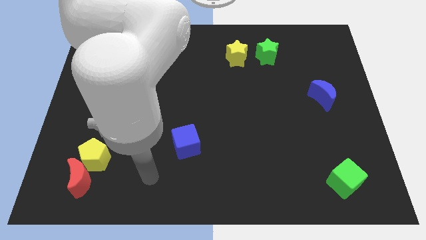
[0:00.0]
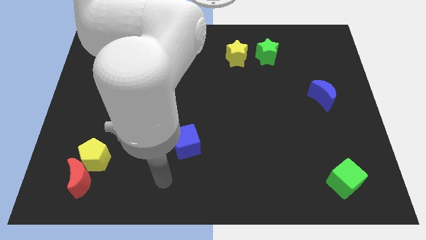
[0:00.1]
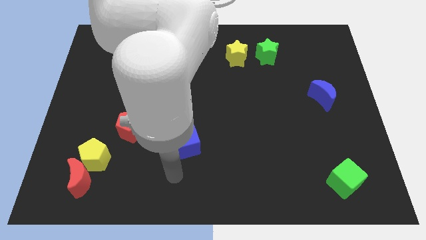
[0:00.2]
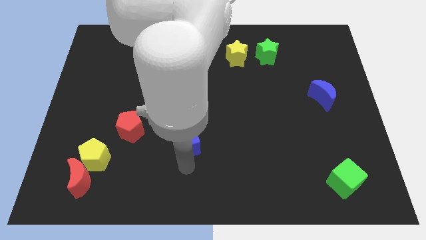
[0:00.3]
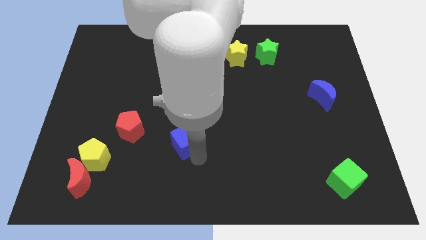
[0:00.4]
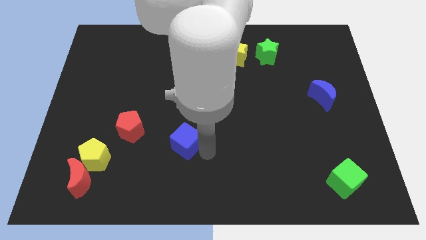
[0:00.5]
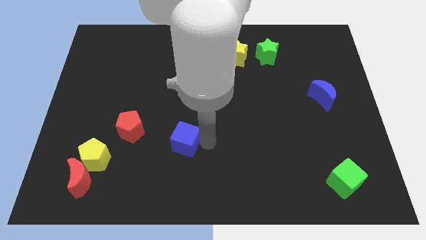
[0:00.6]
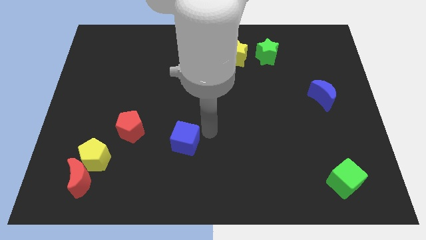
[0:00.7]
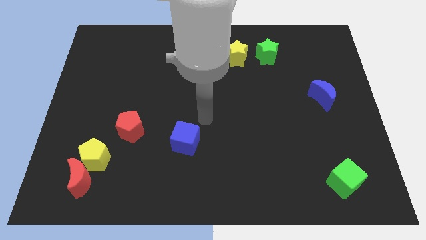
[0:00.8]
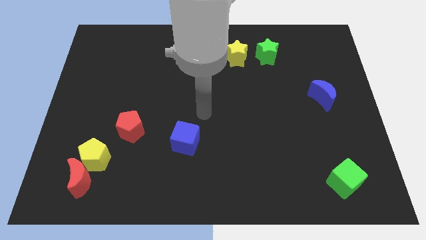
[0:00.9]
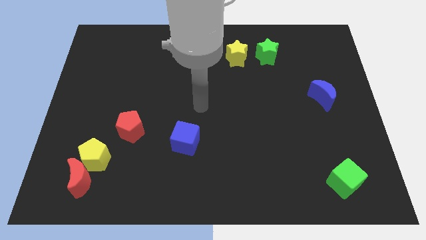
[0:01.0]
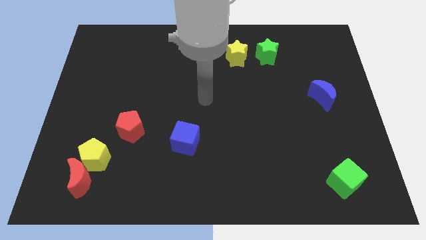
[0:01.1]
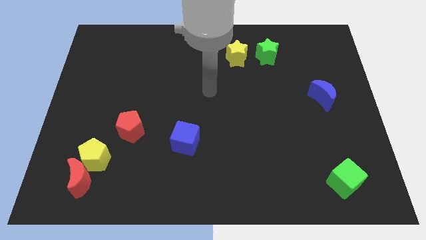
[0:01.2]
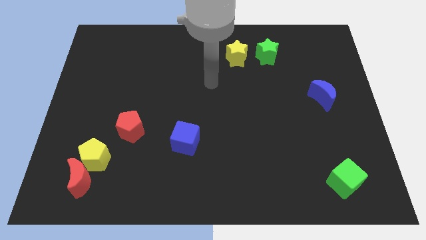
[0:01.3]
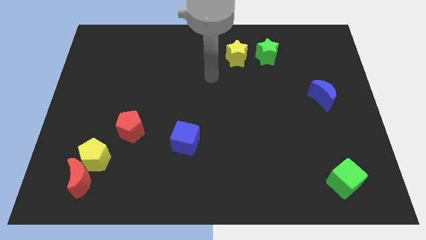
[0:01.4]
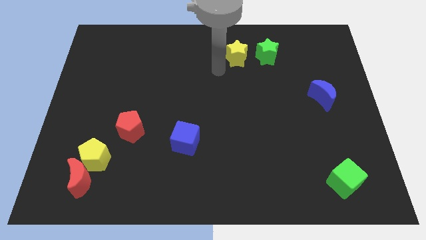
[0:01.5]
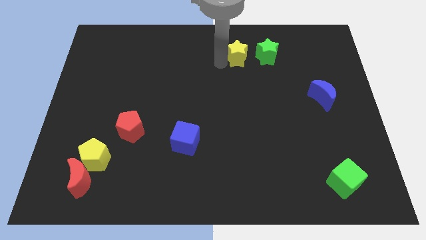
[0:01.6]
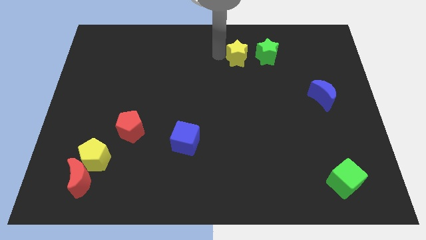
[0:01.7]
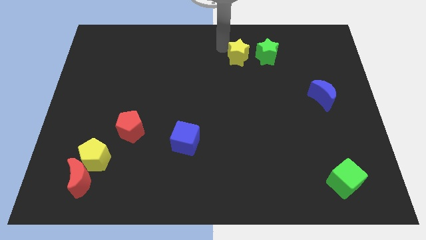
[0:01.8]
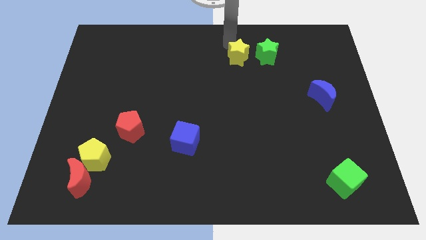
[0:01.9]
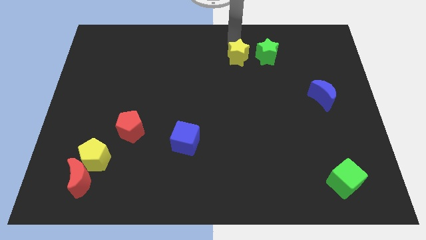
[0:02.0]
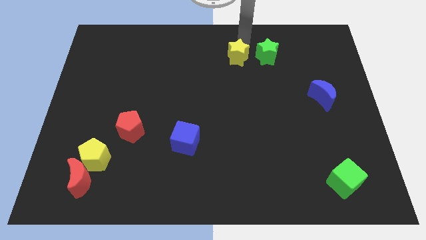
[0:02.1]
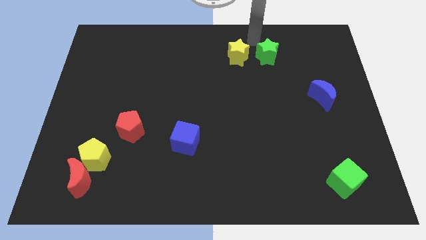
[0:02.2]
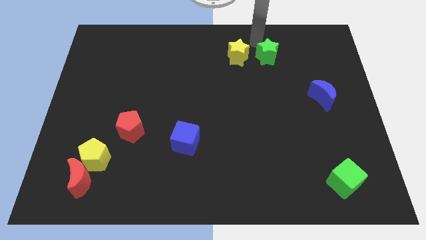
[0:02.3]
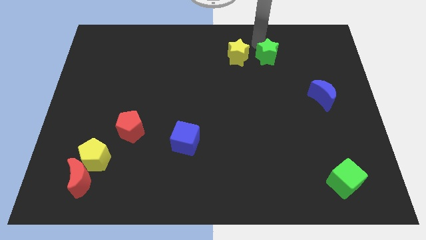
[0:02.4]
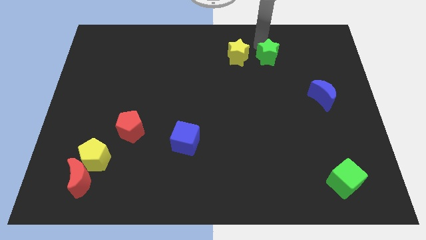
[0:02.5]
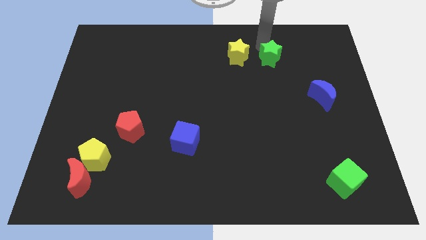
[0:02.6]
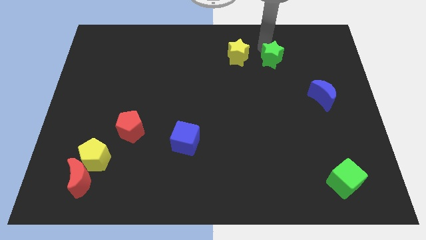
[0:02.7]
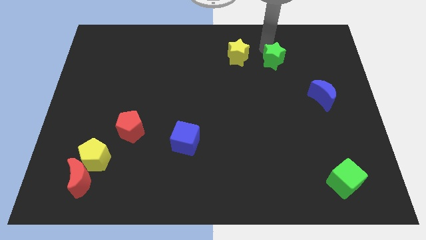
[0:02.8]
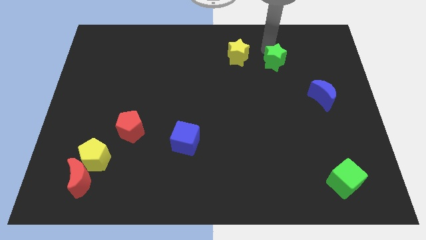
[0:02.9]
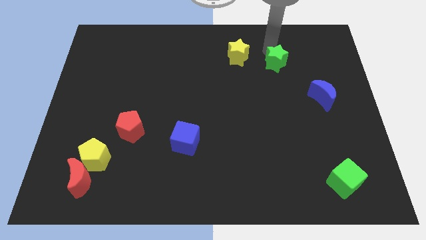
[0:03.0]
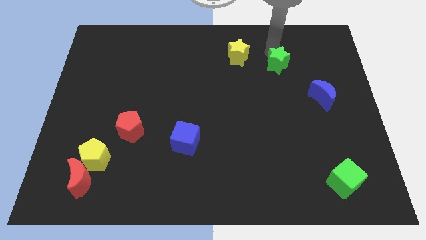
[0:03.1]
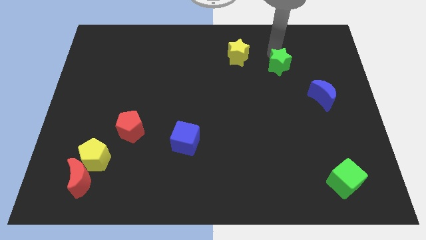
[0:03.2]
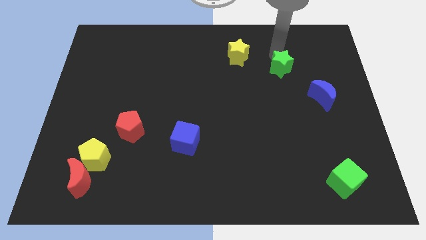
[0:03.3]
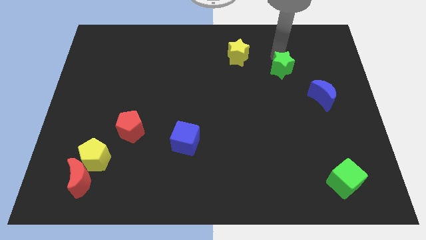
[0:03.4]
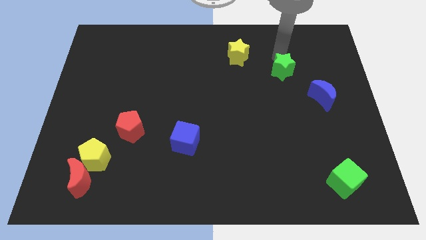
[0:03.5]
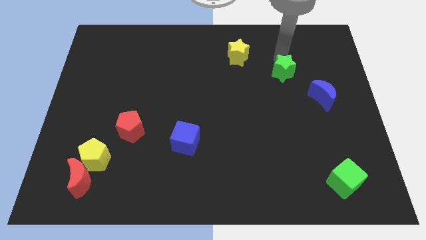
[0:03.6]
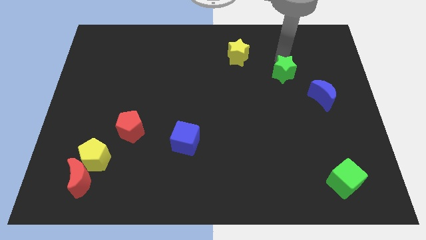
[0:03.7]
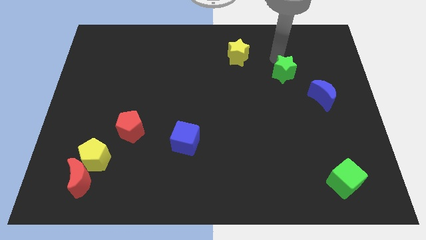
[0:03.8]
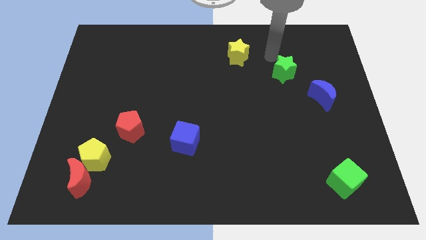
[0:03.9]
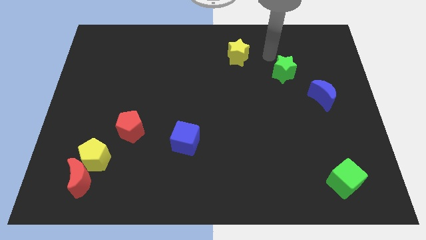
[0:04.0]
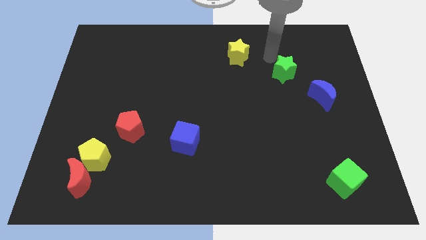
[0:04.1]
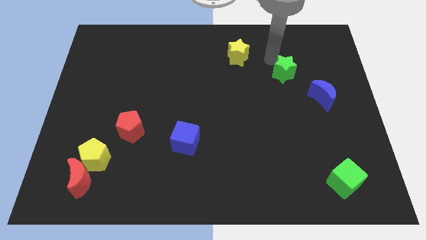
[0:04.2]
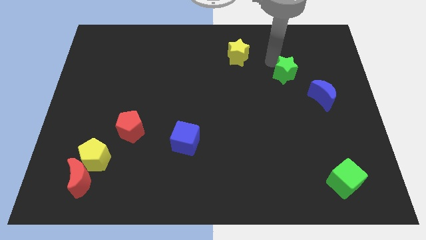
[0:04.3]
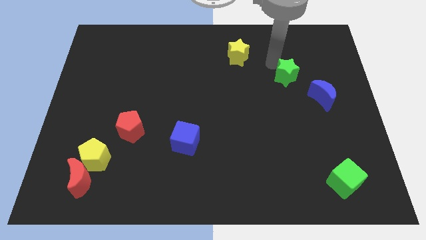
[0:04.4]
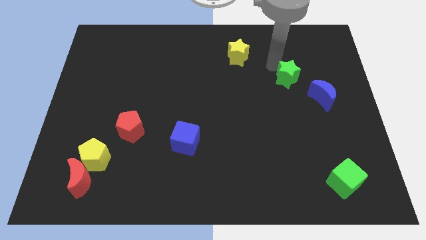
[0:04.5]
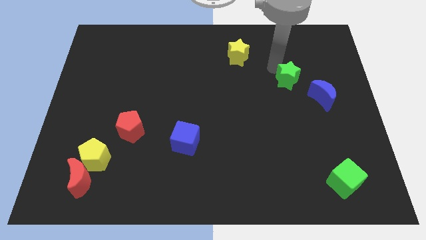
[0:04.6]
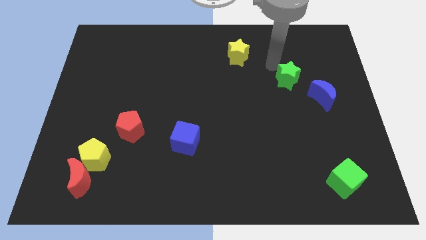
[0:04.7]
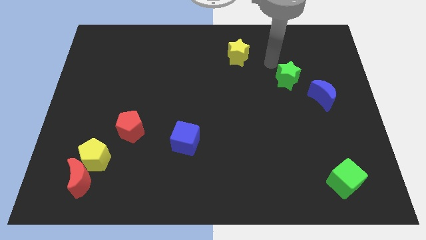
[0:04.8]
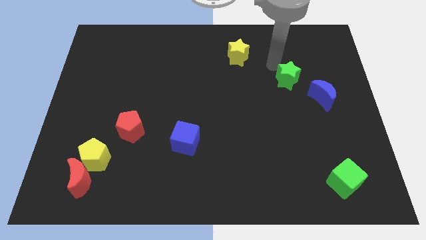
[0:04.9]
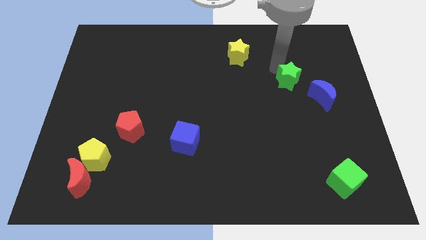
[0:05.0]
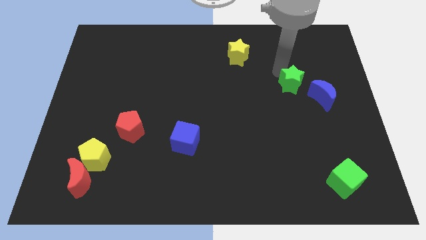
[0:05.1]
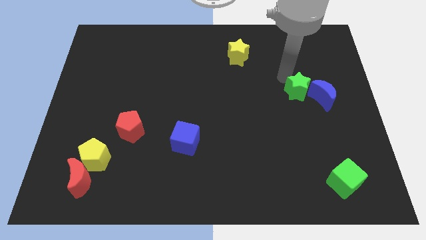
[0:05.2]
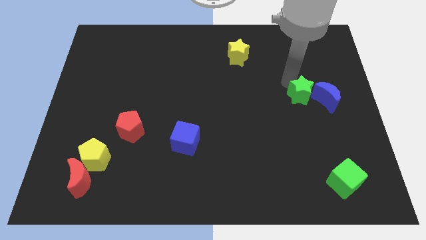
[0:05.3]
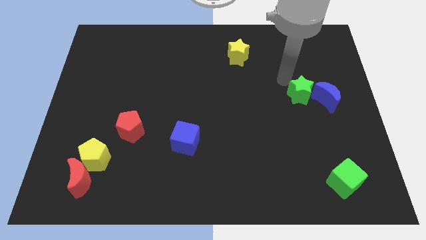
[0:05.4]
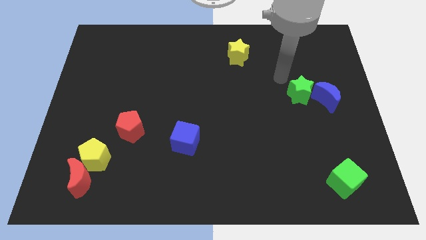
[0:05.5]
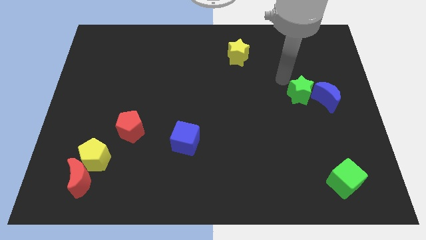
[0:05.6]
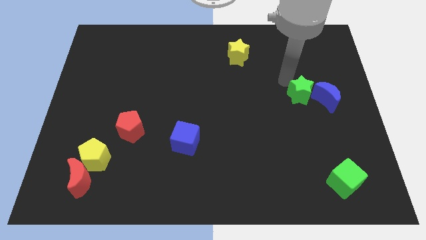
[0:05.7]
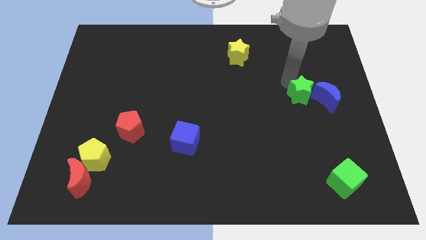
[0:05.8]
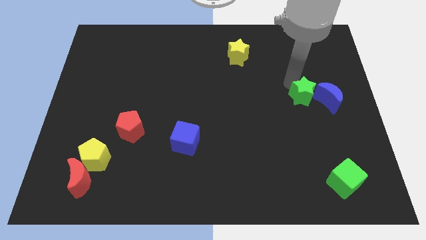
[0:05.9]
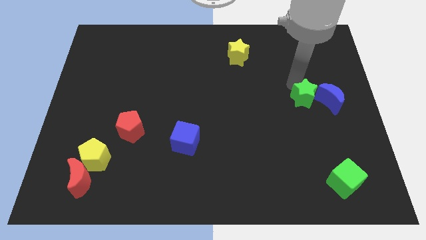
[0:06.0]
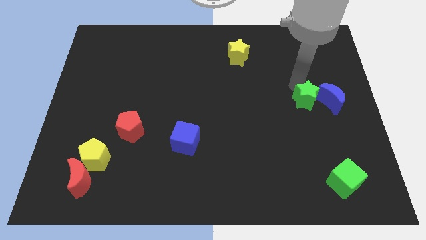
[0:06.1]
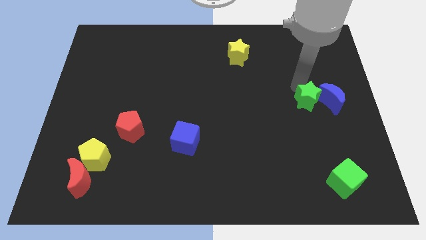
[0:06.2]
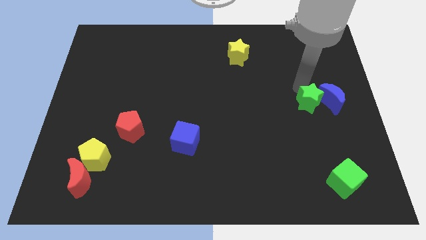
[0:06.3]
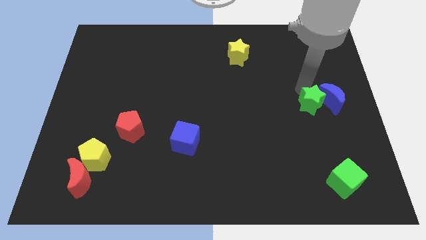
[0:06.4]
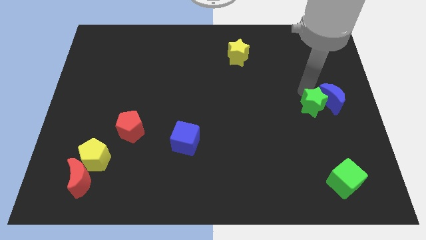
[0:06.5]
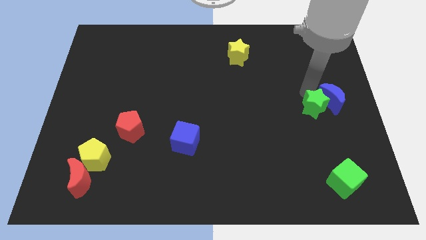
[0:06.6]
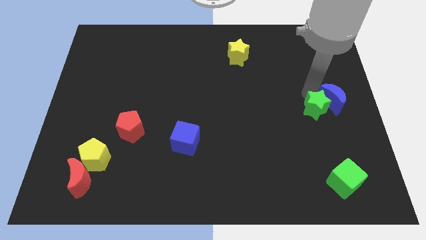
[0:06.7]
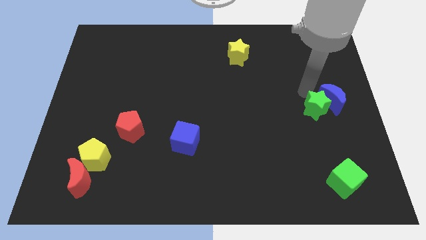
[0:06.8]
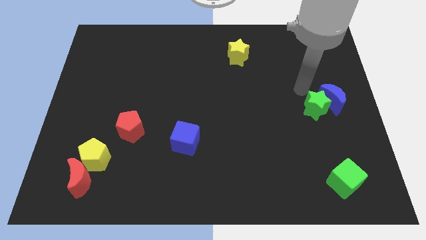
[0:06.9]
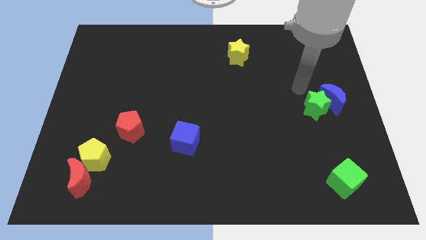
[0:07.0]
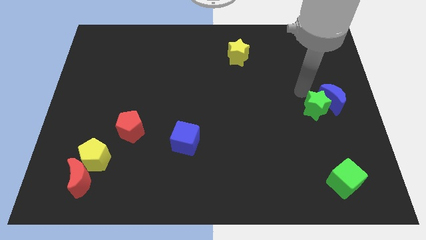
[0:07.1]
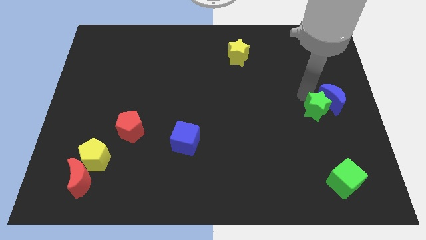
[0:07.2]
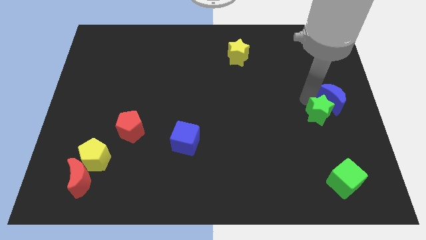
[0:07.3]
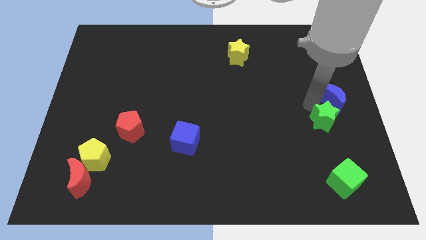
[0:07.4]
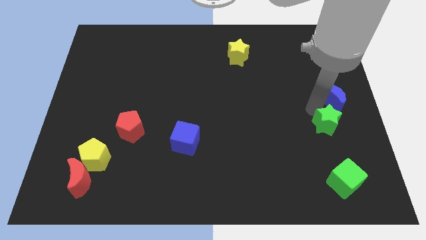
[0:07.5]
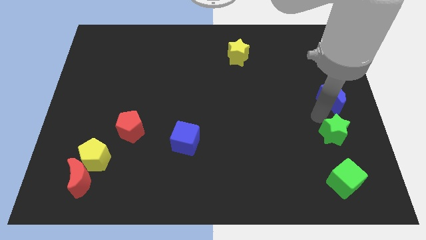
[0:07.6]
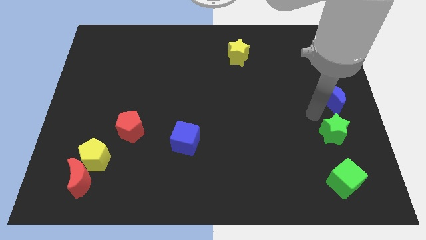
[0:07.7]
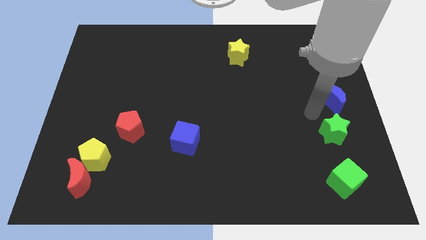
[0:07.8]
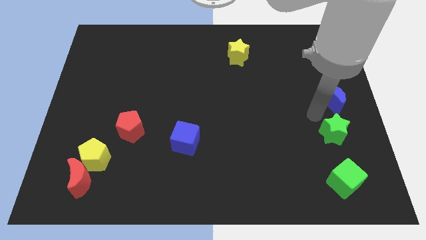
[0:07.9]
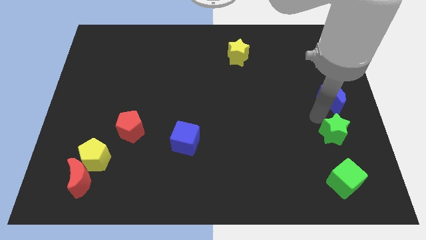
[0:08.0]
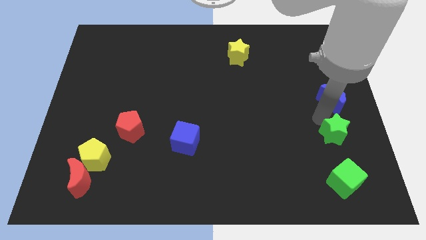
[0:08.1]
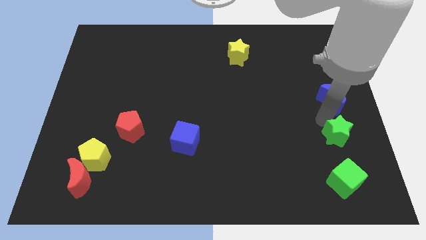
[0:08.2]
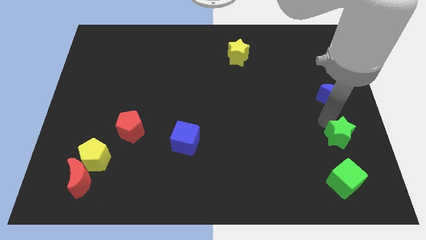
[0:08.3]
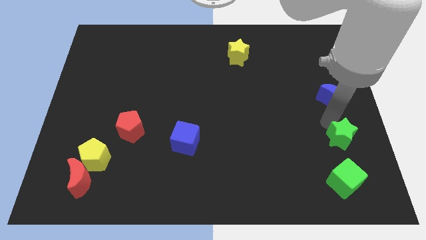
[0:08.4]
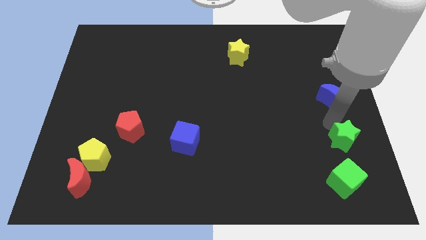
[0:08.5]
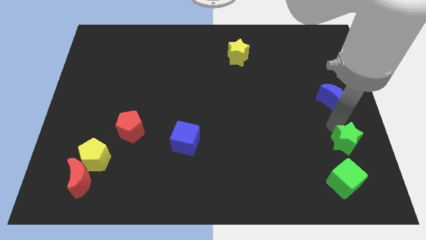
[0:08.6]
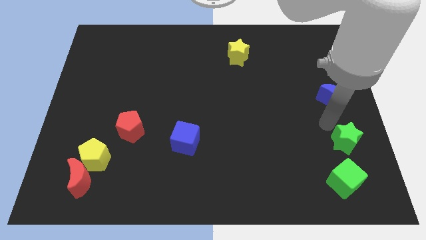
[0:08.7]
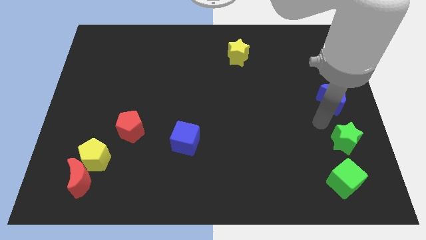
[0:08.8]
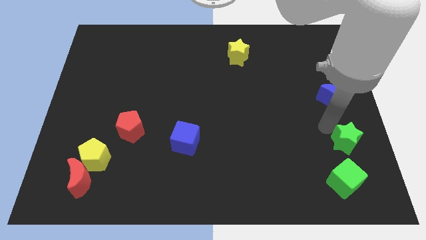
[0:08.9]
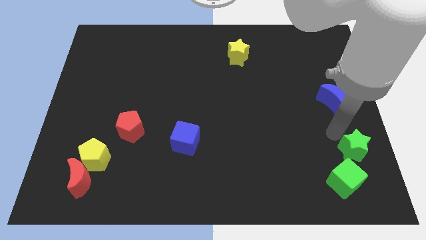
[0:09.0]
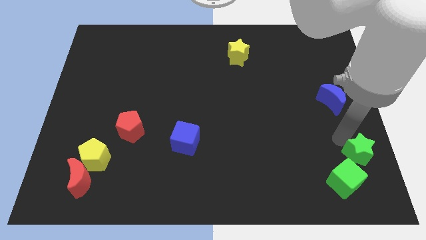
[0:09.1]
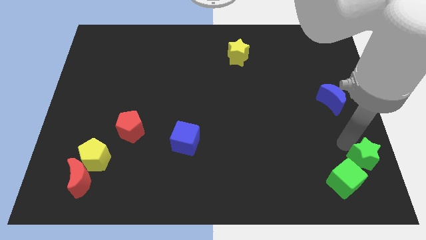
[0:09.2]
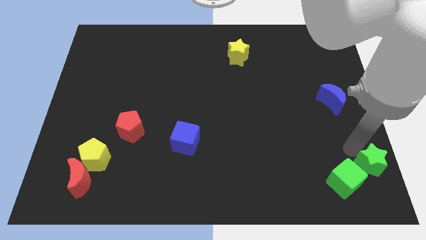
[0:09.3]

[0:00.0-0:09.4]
put the green star to the bottom right
